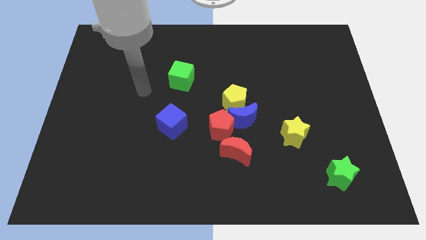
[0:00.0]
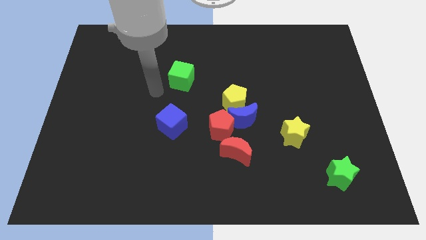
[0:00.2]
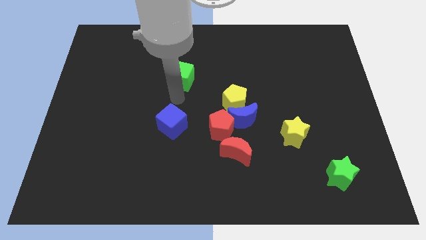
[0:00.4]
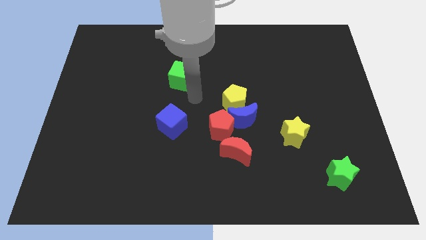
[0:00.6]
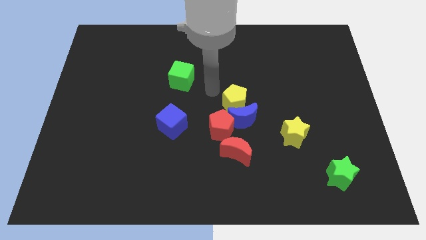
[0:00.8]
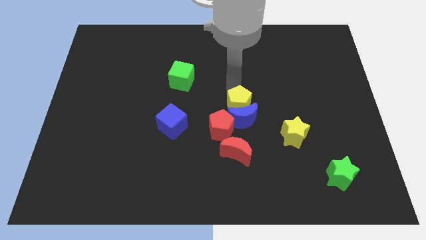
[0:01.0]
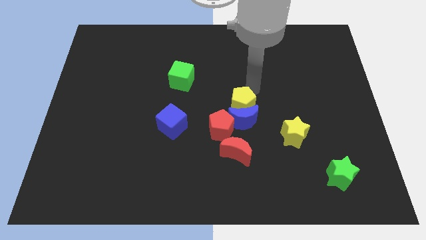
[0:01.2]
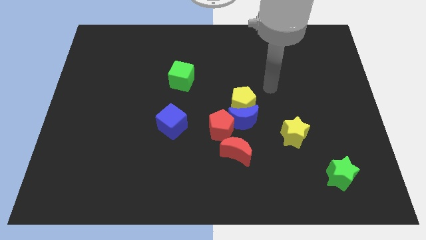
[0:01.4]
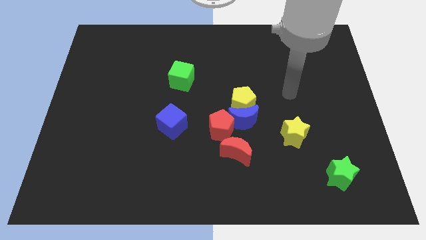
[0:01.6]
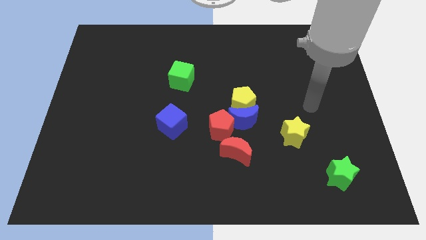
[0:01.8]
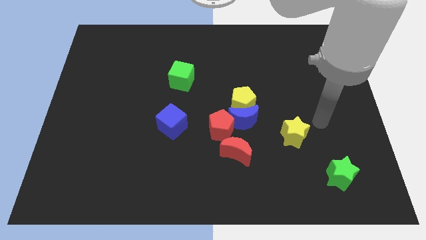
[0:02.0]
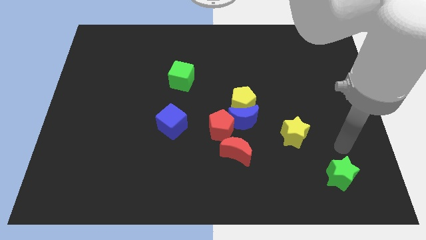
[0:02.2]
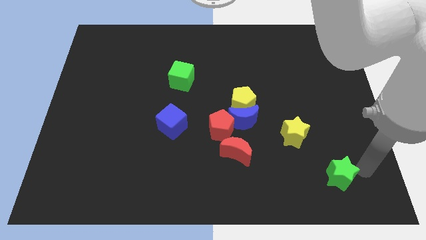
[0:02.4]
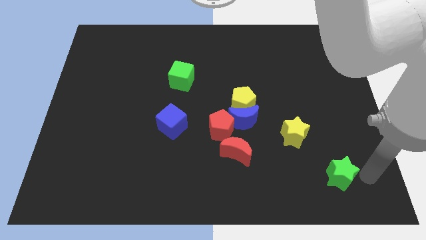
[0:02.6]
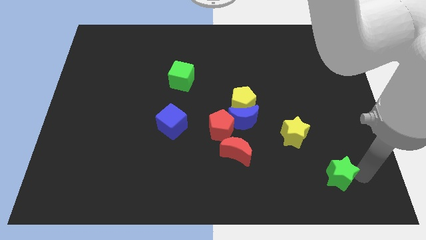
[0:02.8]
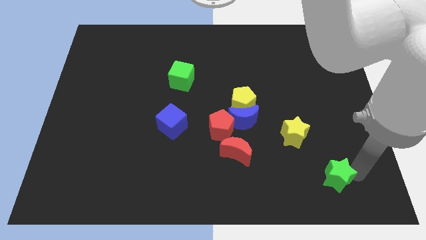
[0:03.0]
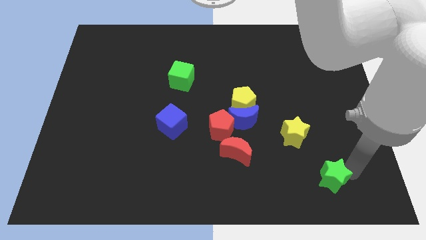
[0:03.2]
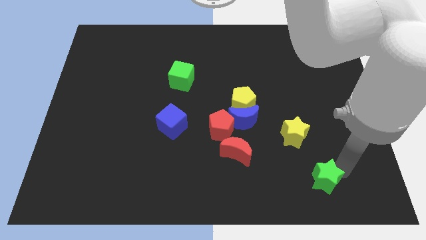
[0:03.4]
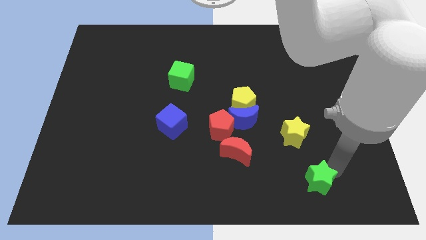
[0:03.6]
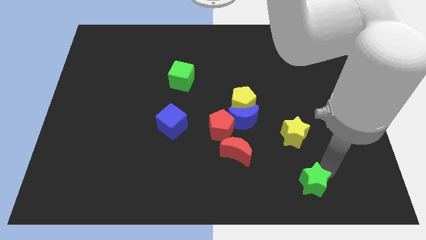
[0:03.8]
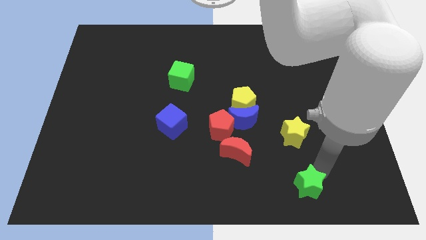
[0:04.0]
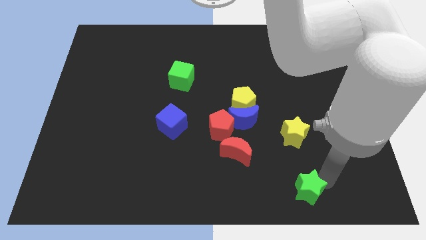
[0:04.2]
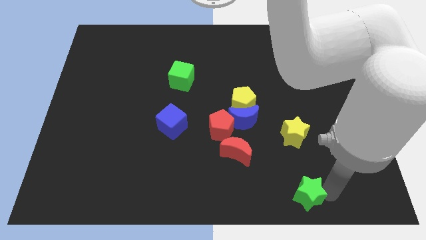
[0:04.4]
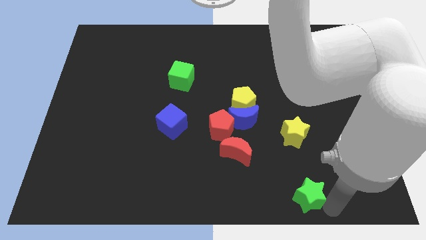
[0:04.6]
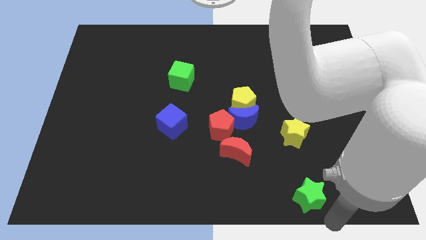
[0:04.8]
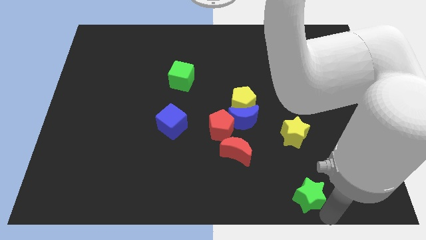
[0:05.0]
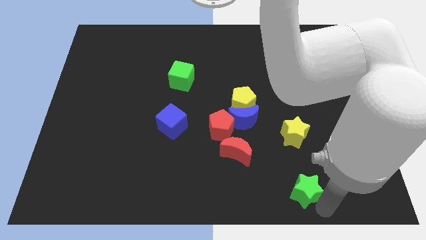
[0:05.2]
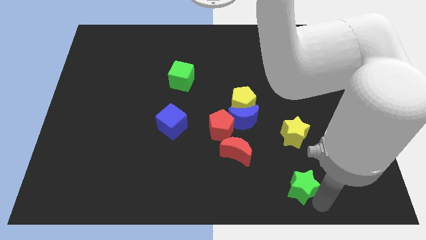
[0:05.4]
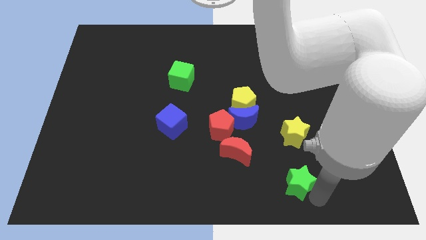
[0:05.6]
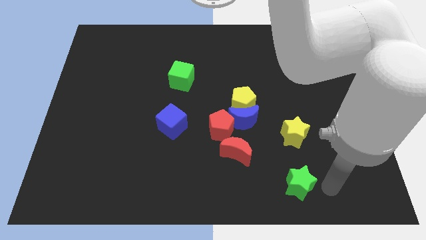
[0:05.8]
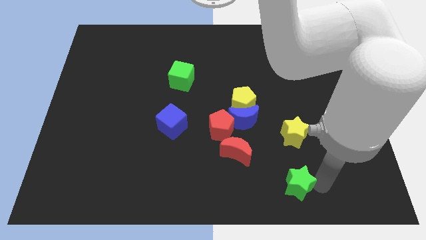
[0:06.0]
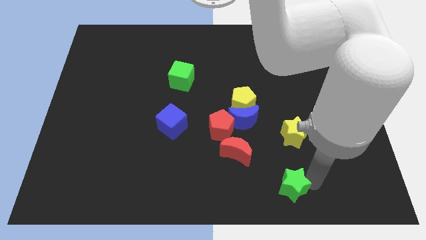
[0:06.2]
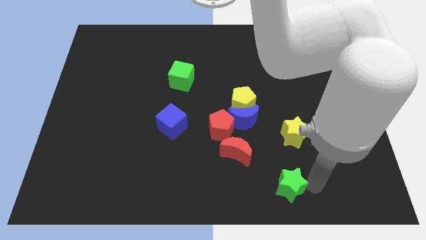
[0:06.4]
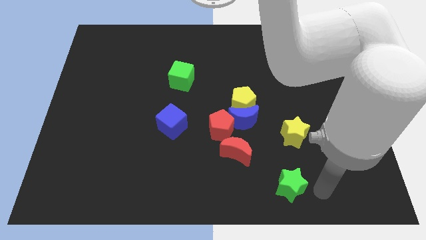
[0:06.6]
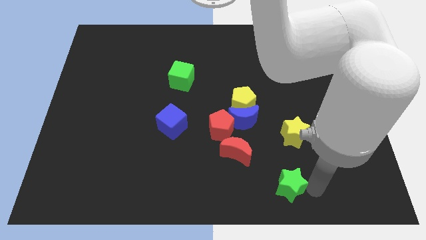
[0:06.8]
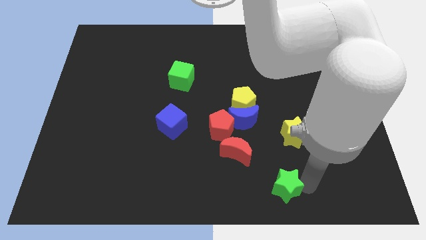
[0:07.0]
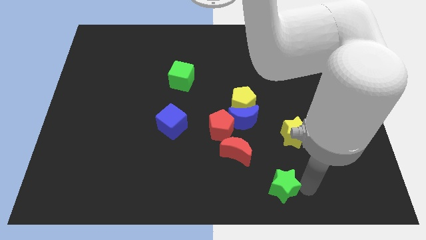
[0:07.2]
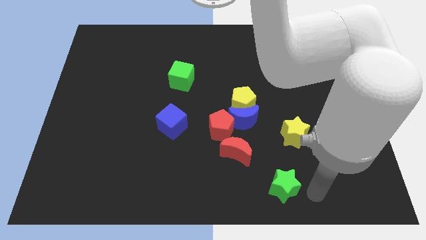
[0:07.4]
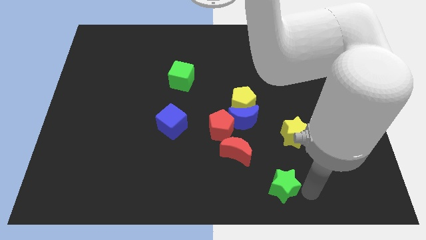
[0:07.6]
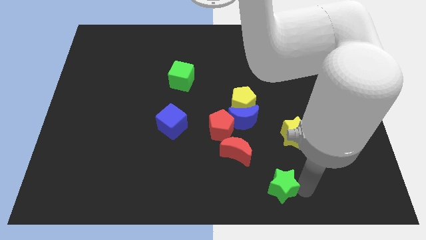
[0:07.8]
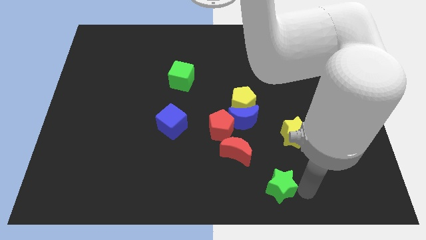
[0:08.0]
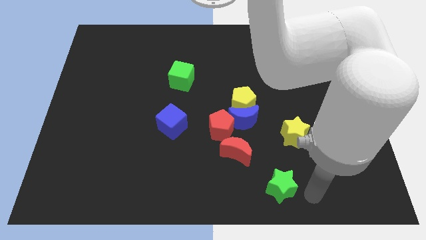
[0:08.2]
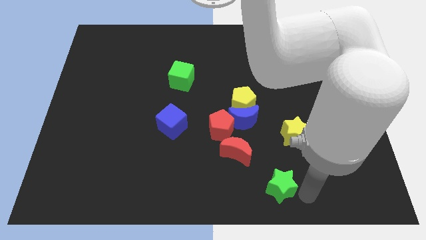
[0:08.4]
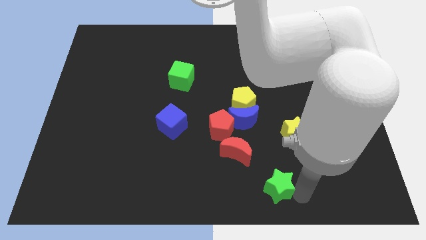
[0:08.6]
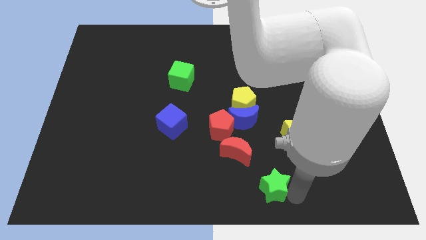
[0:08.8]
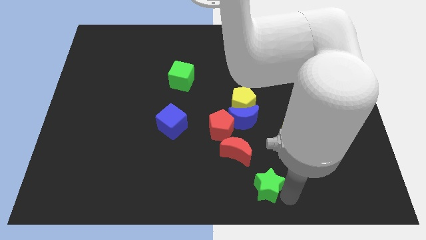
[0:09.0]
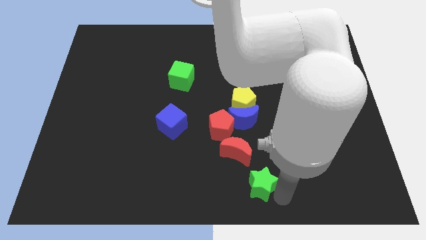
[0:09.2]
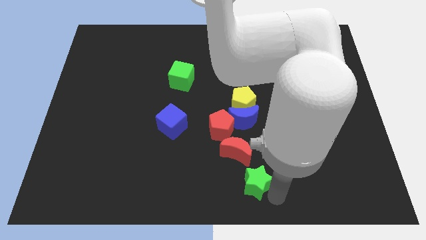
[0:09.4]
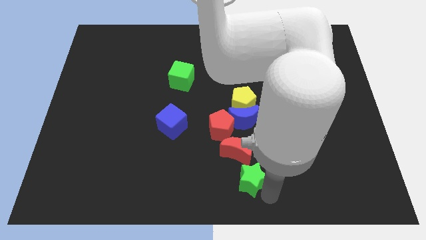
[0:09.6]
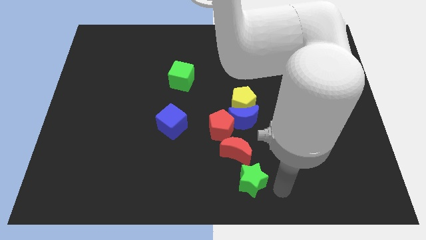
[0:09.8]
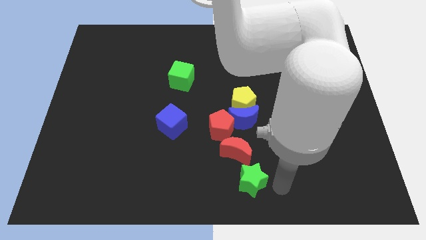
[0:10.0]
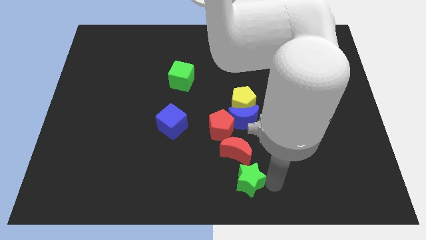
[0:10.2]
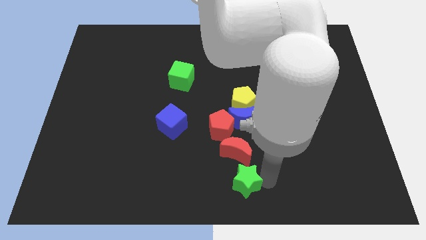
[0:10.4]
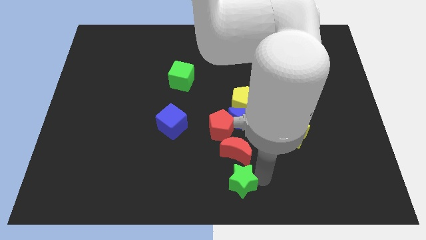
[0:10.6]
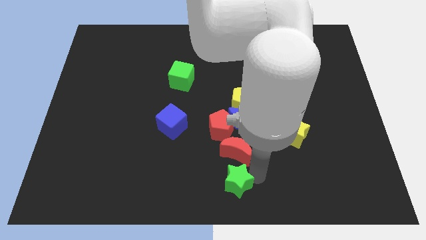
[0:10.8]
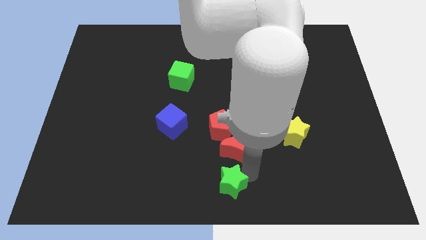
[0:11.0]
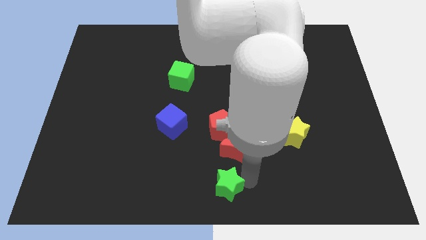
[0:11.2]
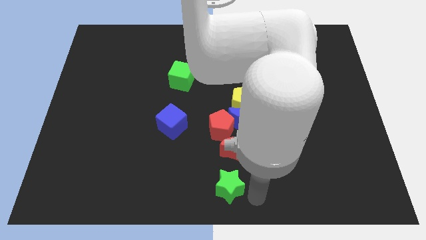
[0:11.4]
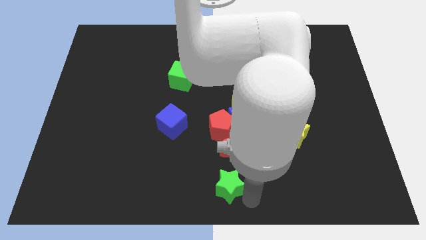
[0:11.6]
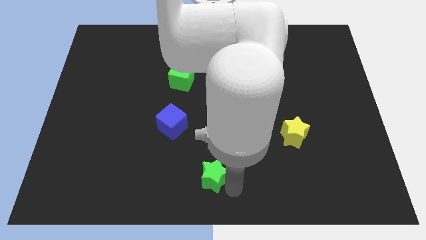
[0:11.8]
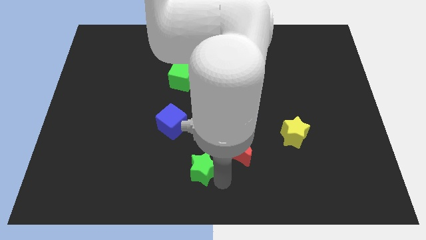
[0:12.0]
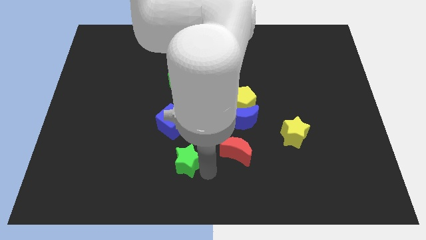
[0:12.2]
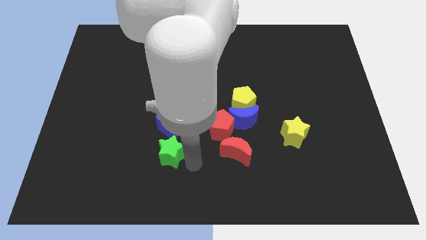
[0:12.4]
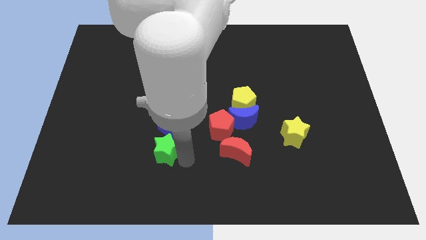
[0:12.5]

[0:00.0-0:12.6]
put the green star diagonally down and to the left of the blue cube

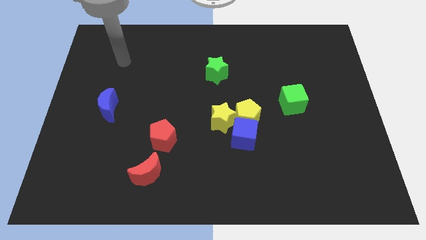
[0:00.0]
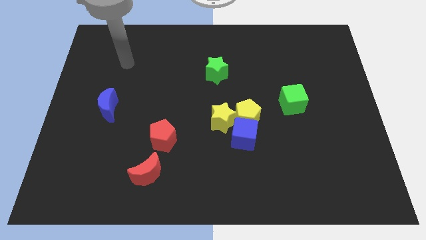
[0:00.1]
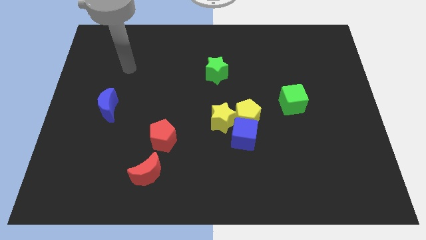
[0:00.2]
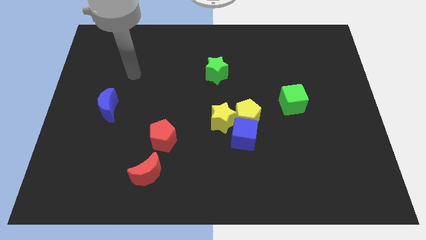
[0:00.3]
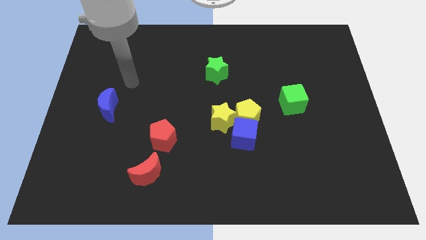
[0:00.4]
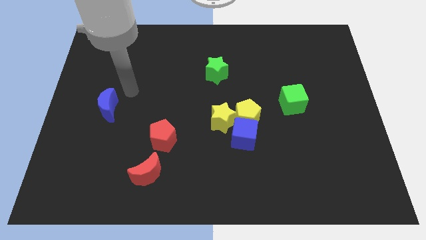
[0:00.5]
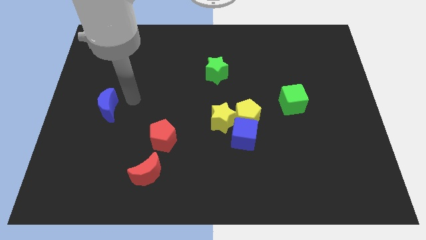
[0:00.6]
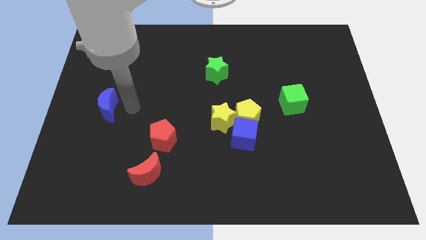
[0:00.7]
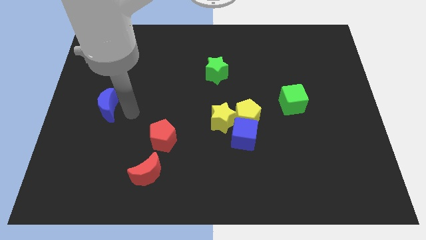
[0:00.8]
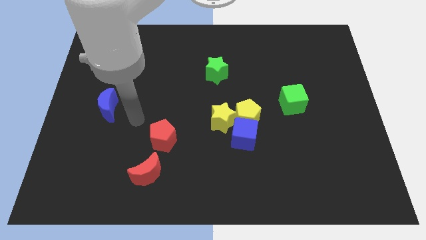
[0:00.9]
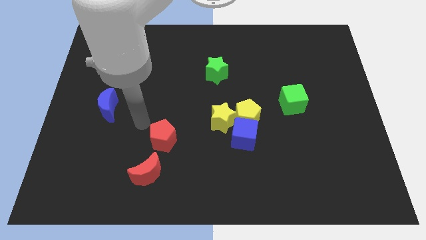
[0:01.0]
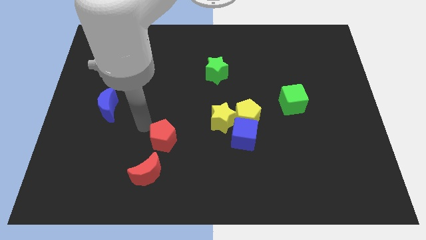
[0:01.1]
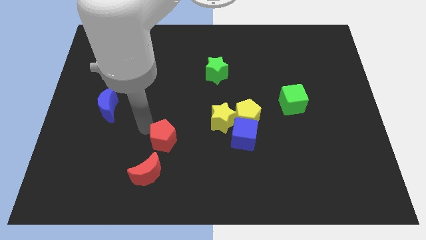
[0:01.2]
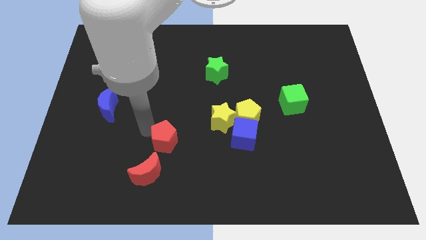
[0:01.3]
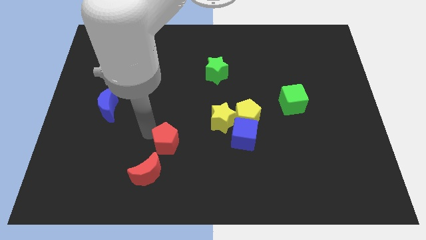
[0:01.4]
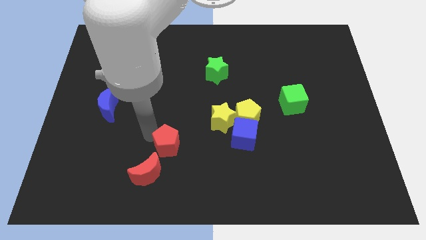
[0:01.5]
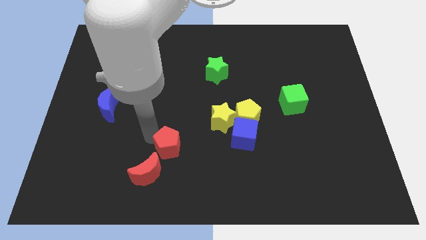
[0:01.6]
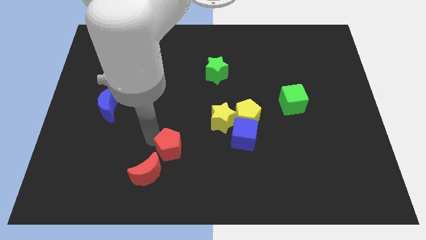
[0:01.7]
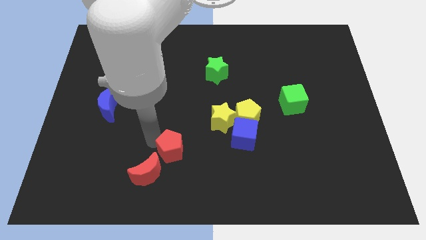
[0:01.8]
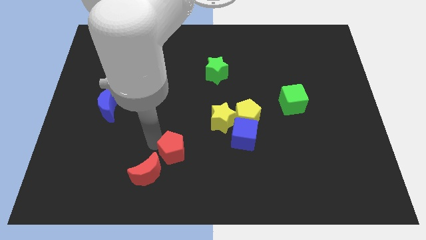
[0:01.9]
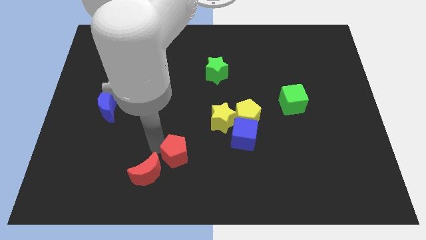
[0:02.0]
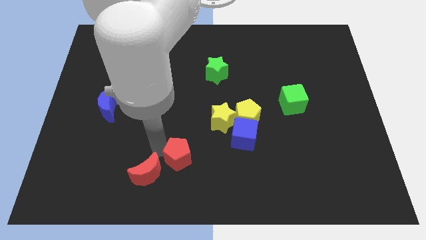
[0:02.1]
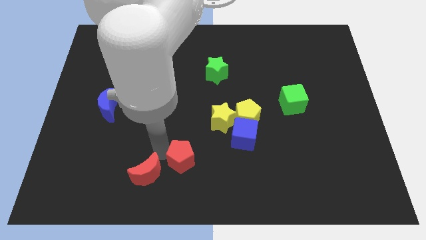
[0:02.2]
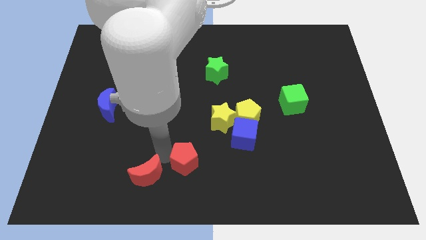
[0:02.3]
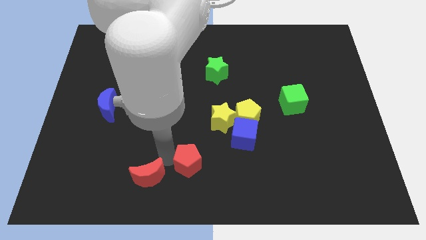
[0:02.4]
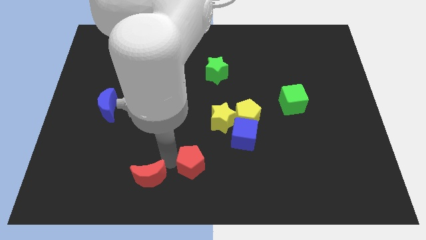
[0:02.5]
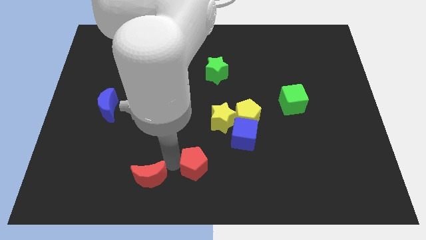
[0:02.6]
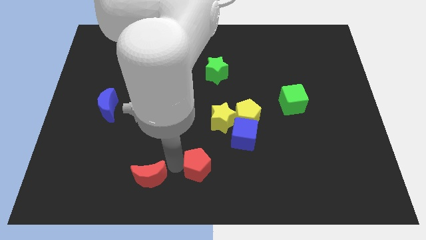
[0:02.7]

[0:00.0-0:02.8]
move the red pentagon to the bottom left of the blue cube
